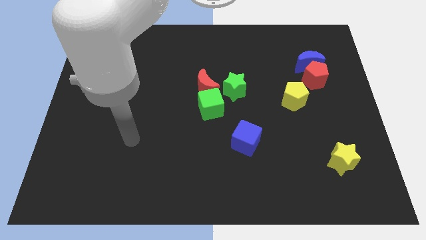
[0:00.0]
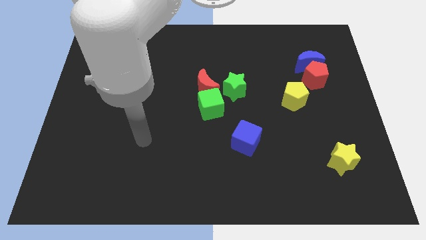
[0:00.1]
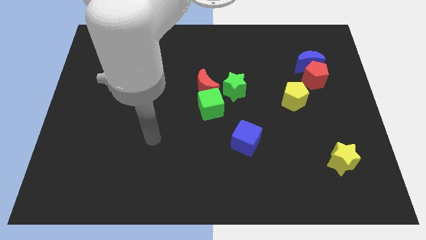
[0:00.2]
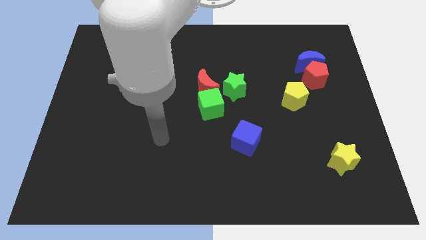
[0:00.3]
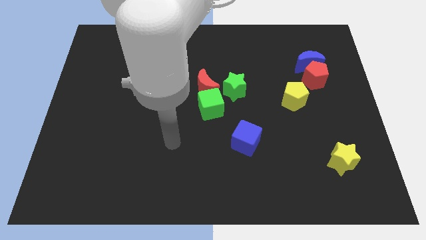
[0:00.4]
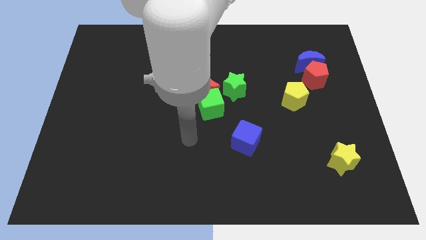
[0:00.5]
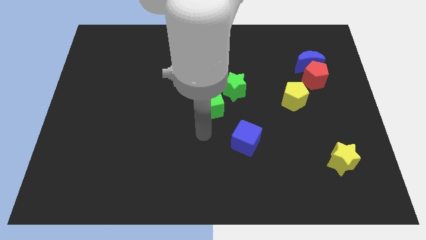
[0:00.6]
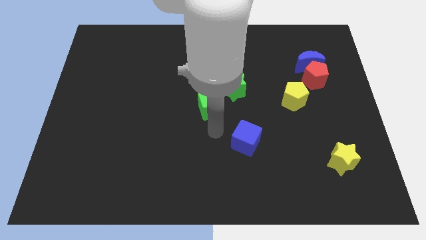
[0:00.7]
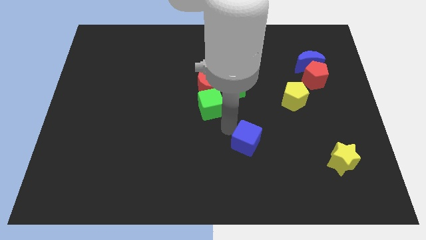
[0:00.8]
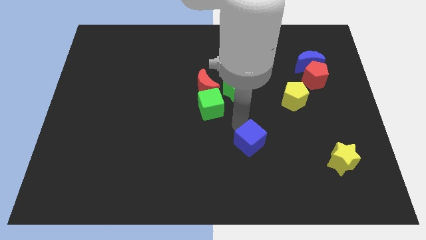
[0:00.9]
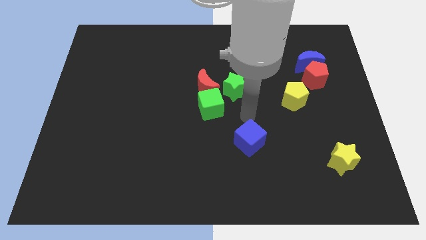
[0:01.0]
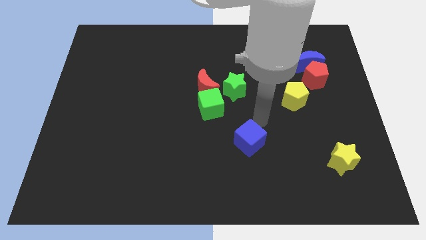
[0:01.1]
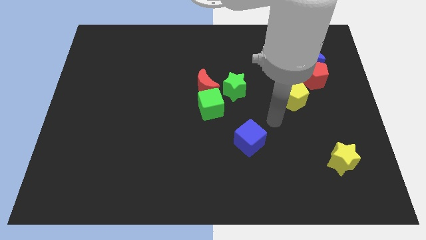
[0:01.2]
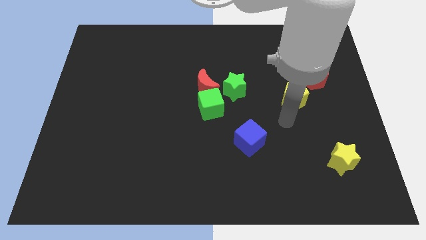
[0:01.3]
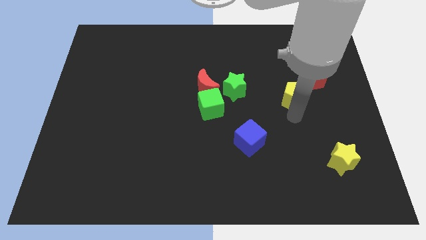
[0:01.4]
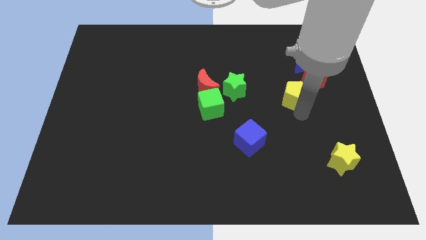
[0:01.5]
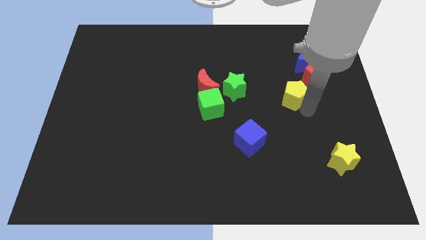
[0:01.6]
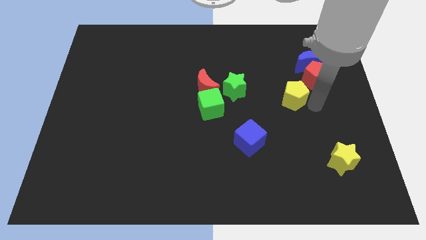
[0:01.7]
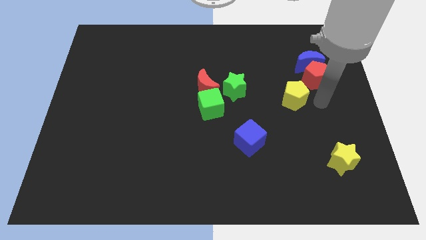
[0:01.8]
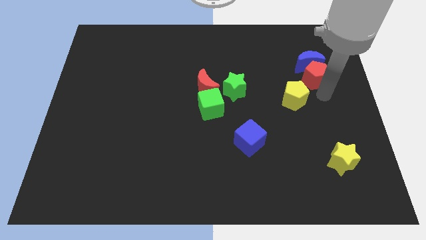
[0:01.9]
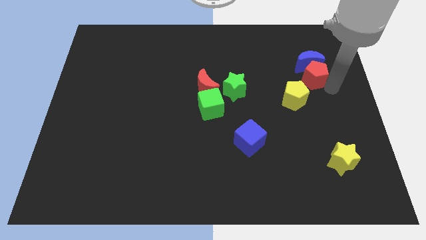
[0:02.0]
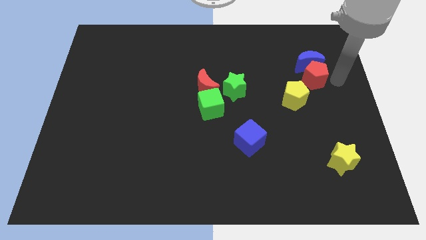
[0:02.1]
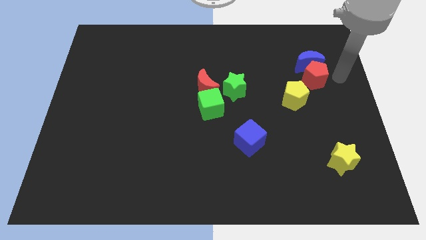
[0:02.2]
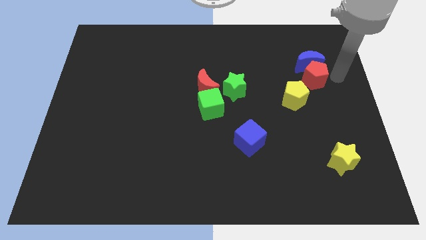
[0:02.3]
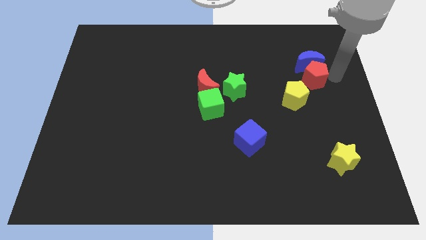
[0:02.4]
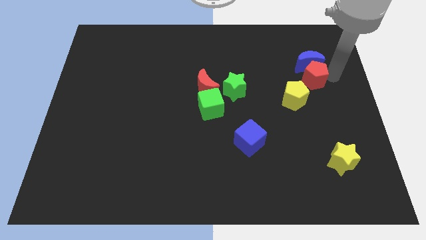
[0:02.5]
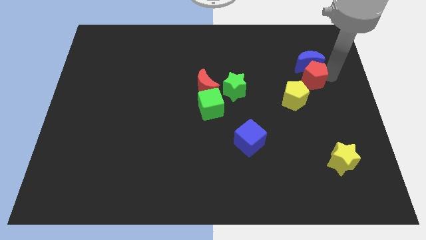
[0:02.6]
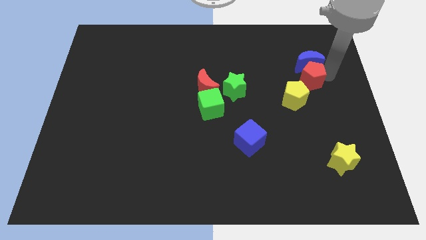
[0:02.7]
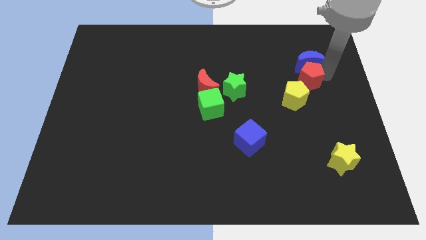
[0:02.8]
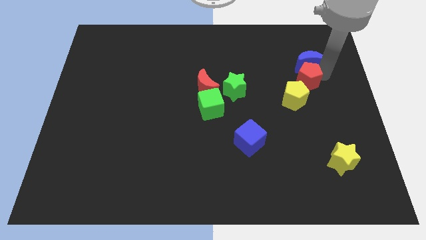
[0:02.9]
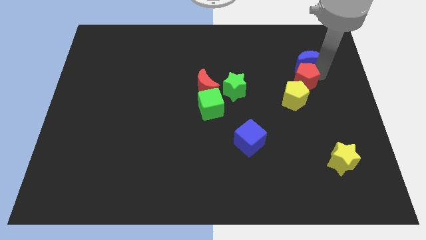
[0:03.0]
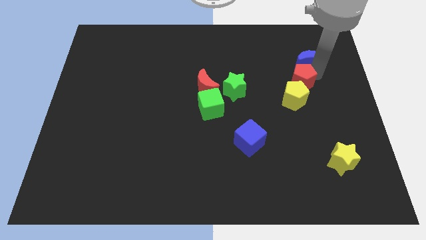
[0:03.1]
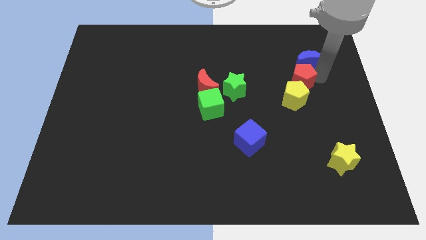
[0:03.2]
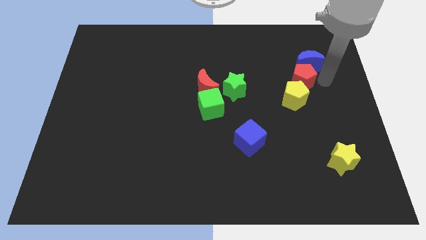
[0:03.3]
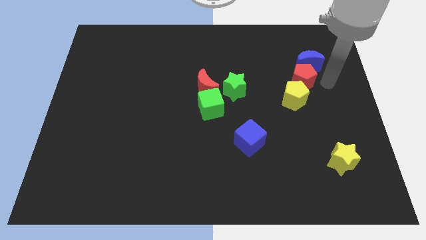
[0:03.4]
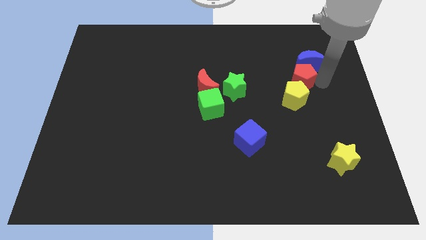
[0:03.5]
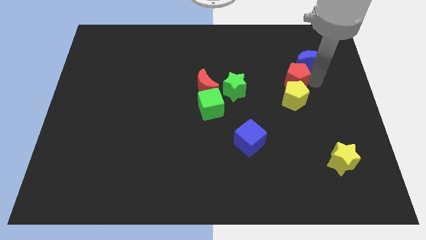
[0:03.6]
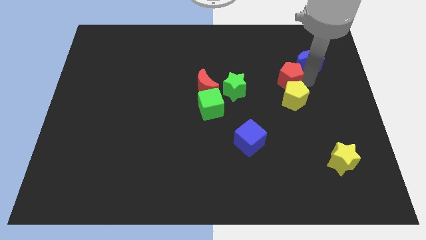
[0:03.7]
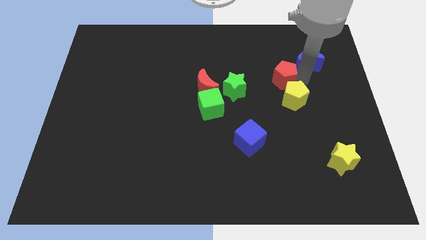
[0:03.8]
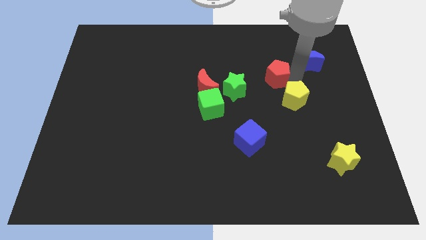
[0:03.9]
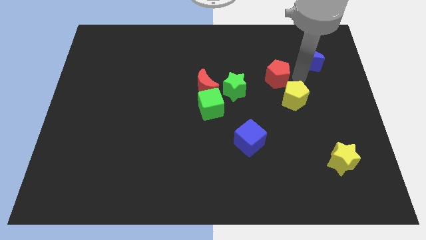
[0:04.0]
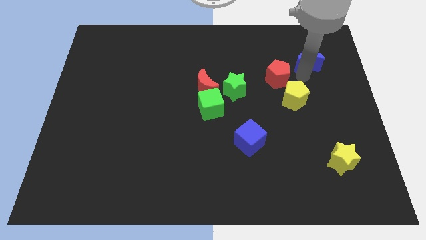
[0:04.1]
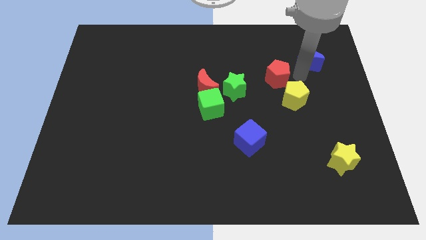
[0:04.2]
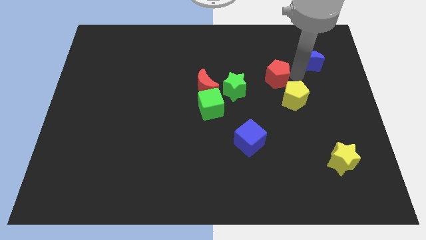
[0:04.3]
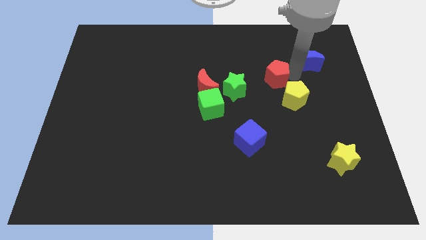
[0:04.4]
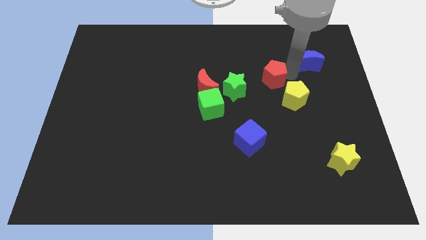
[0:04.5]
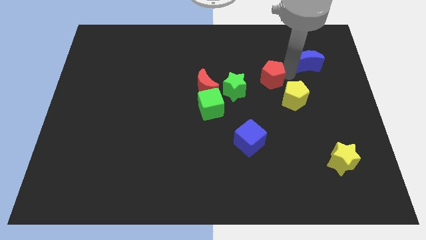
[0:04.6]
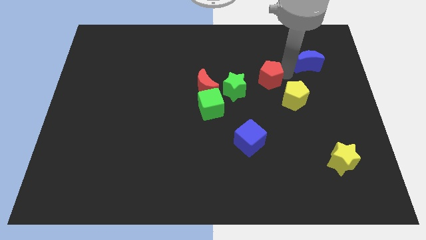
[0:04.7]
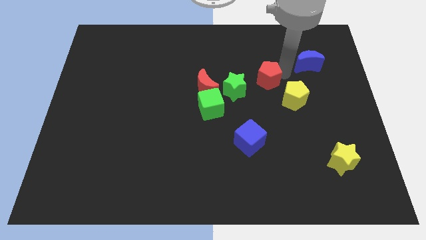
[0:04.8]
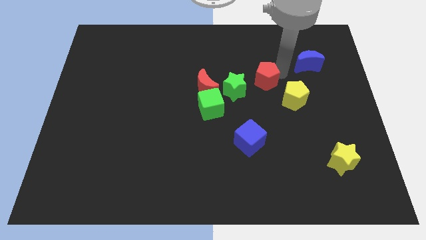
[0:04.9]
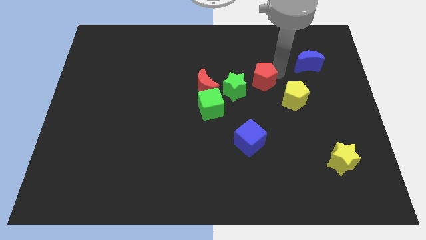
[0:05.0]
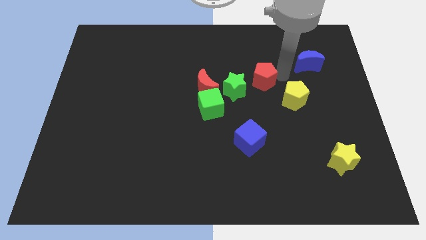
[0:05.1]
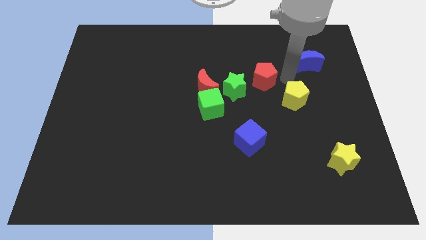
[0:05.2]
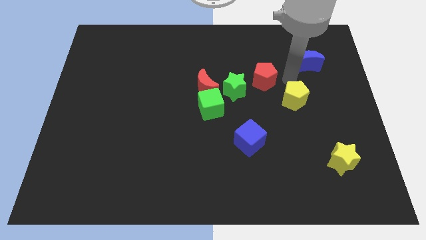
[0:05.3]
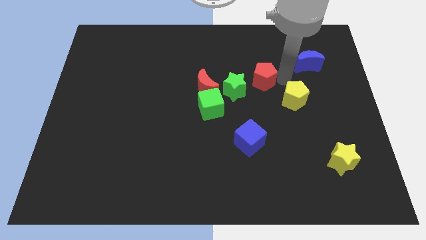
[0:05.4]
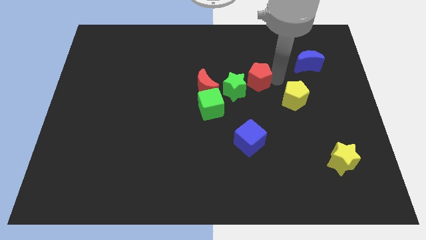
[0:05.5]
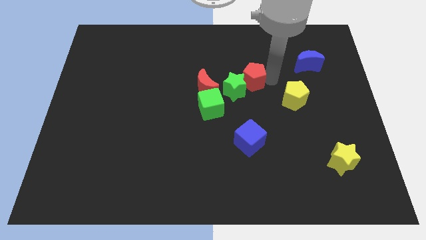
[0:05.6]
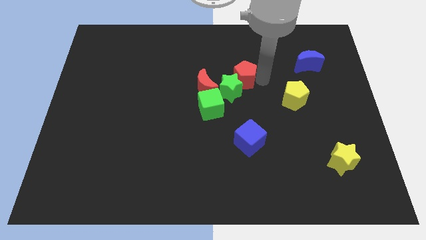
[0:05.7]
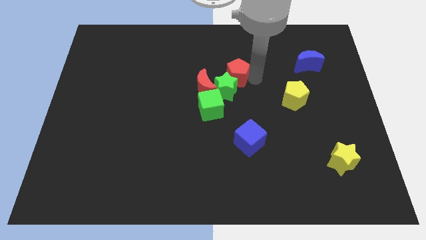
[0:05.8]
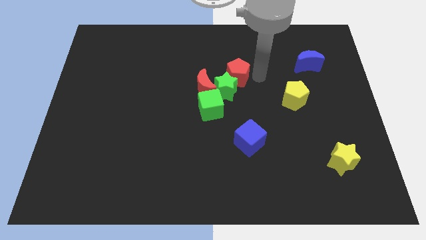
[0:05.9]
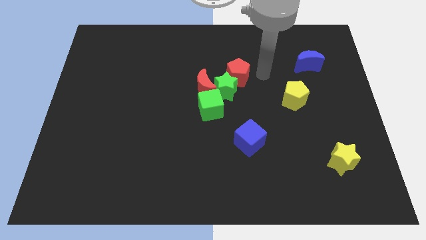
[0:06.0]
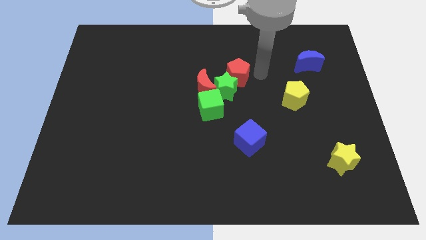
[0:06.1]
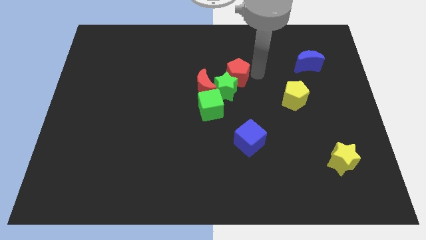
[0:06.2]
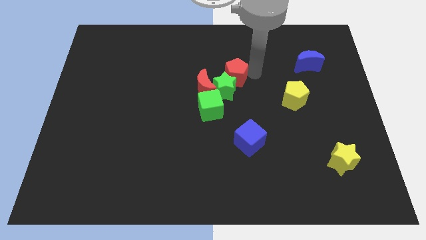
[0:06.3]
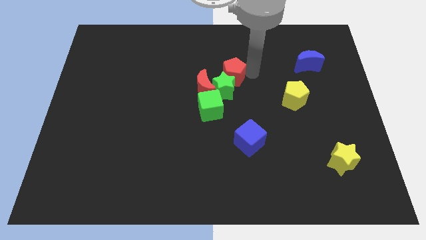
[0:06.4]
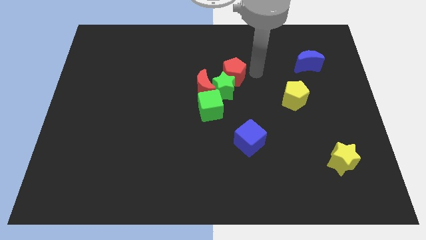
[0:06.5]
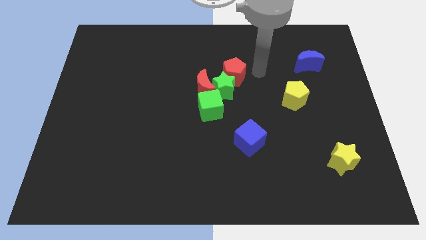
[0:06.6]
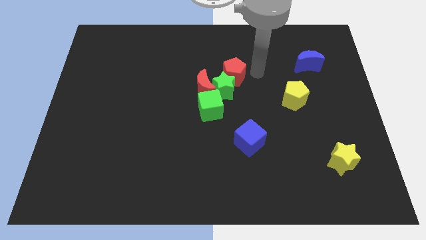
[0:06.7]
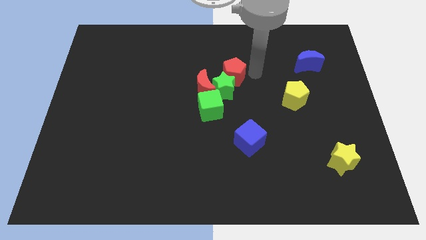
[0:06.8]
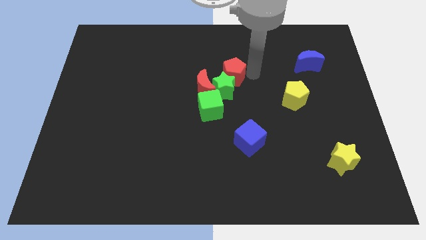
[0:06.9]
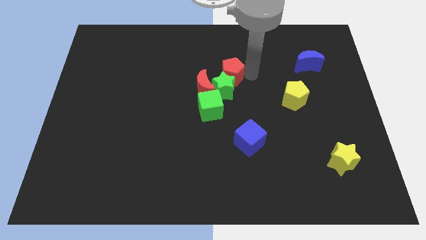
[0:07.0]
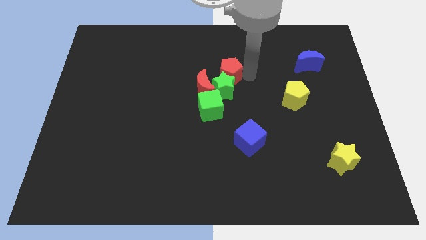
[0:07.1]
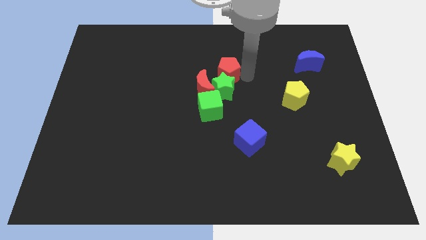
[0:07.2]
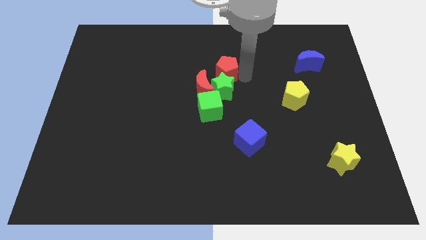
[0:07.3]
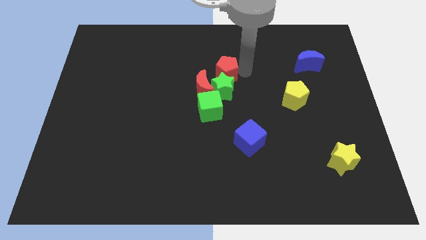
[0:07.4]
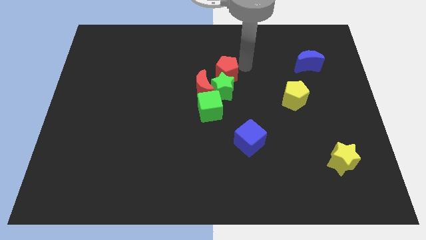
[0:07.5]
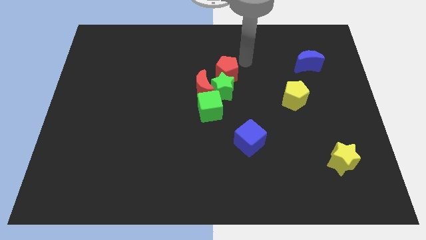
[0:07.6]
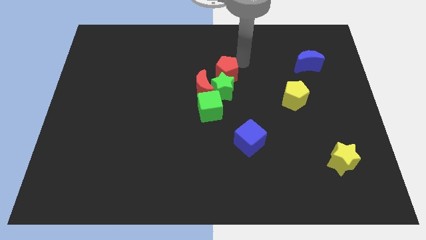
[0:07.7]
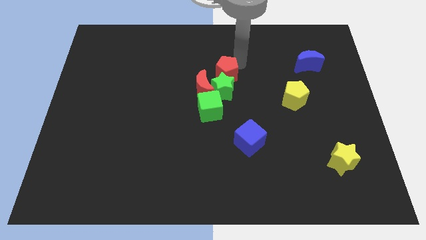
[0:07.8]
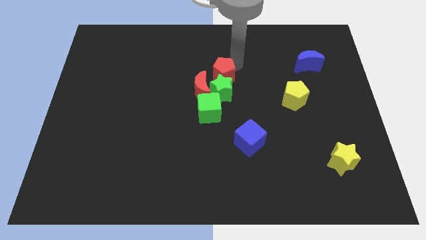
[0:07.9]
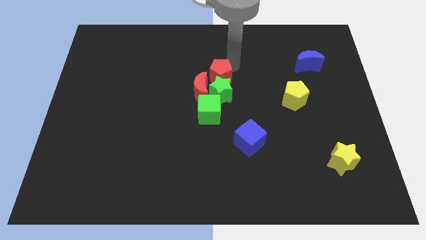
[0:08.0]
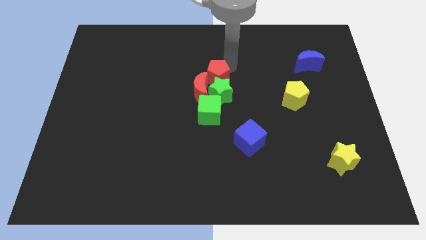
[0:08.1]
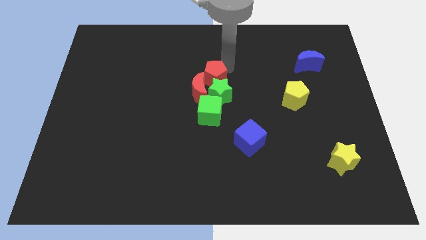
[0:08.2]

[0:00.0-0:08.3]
push the red pentagon towards the red moon
